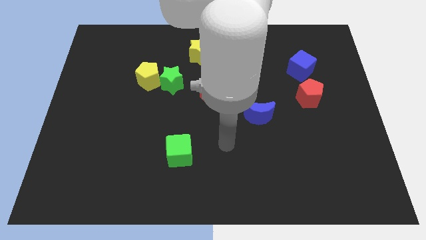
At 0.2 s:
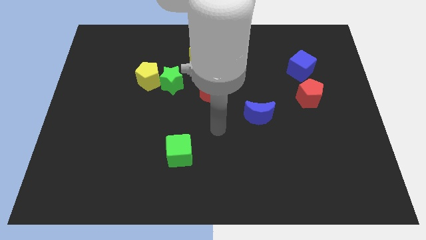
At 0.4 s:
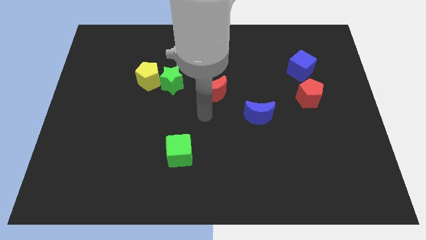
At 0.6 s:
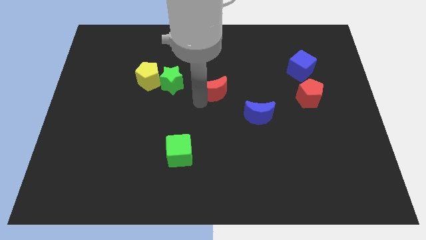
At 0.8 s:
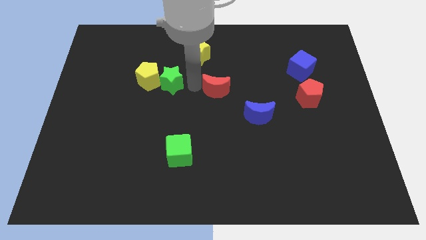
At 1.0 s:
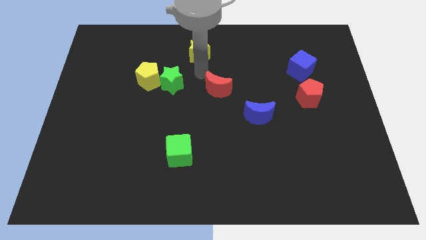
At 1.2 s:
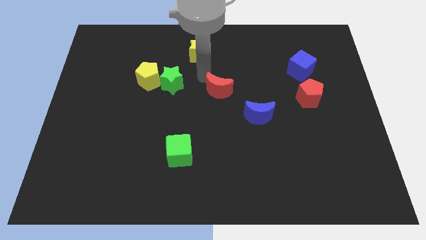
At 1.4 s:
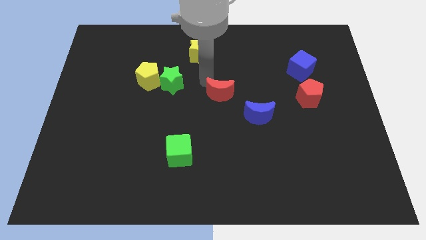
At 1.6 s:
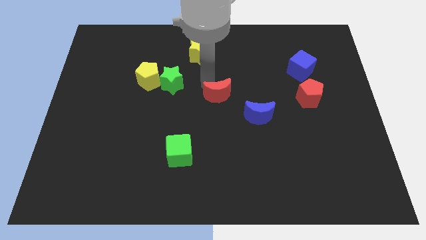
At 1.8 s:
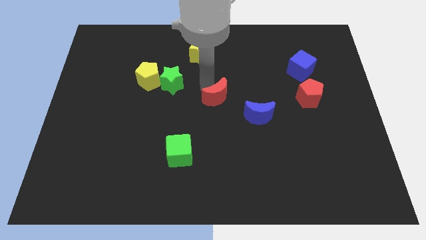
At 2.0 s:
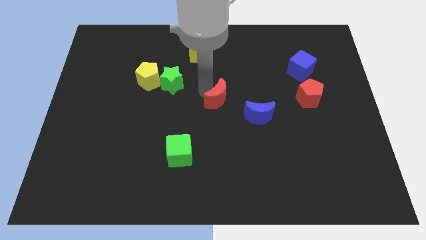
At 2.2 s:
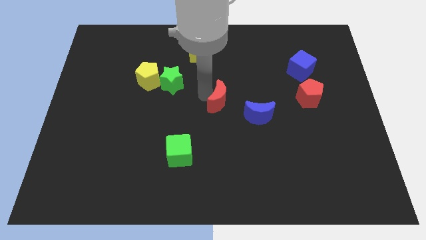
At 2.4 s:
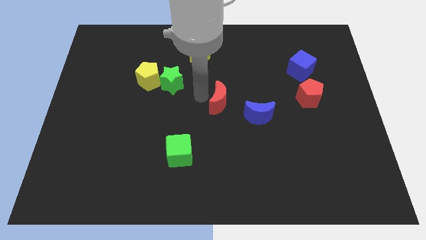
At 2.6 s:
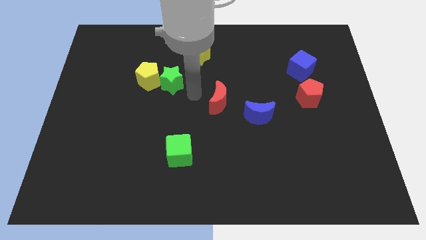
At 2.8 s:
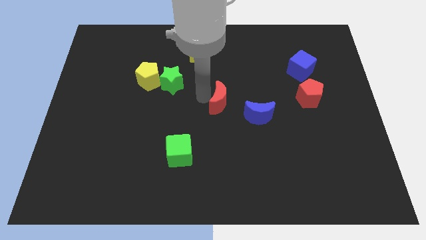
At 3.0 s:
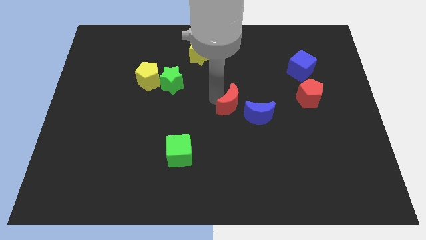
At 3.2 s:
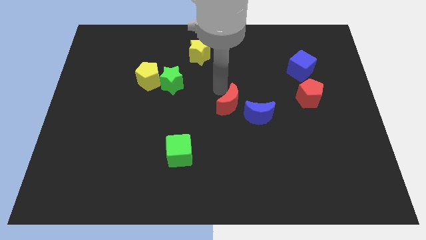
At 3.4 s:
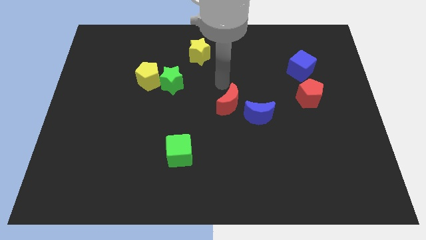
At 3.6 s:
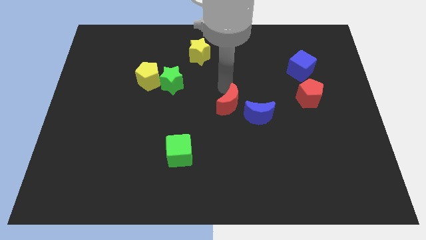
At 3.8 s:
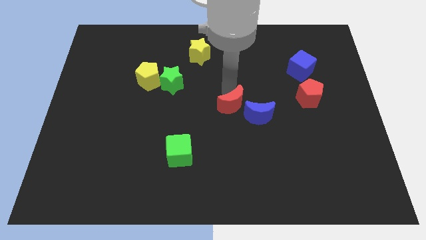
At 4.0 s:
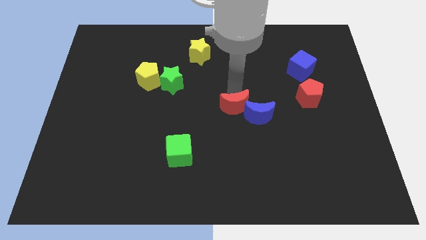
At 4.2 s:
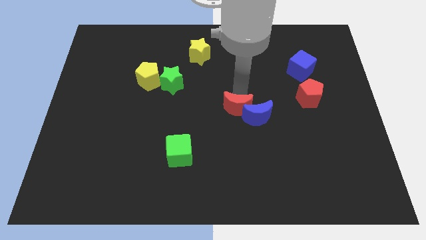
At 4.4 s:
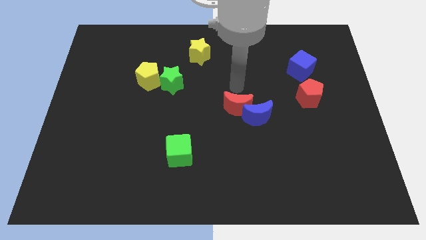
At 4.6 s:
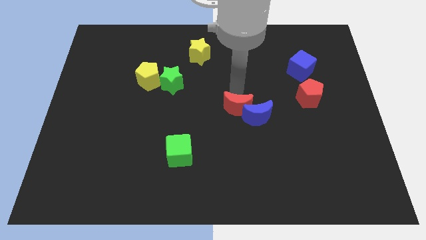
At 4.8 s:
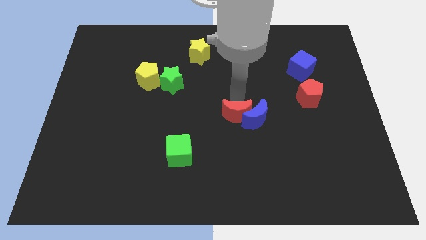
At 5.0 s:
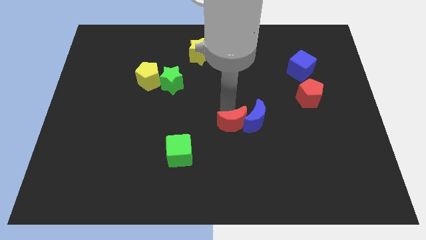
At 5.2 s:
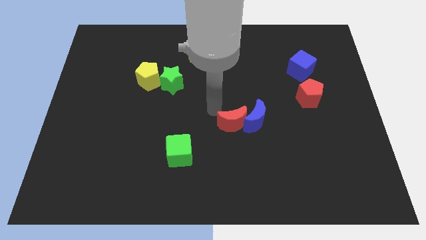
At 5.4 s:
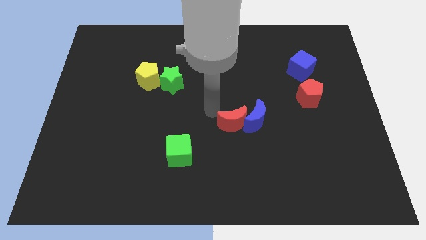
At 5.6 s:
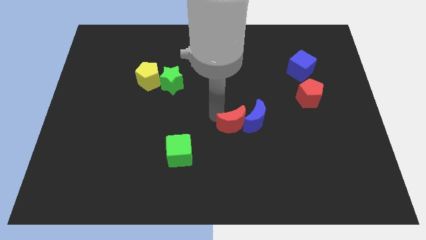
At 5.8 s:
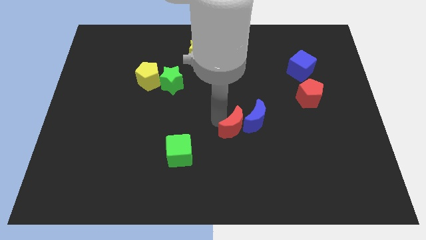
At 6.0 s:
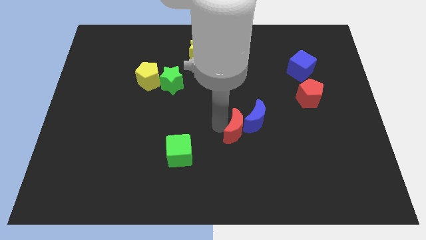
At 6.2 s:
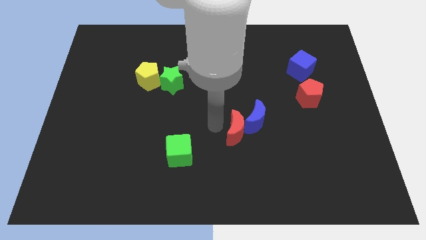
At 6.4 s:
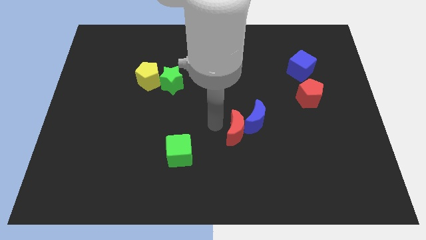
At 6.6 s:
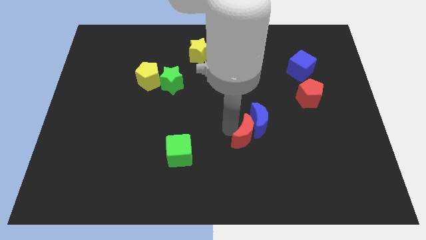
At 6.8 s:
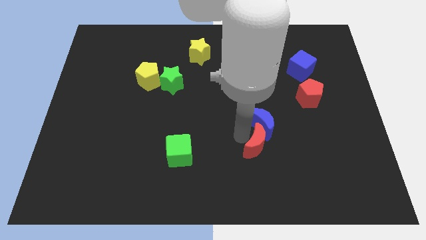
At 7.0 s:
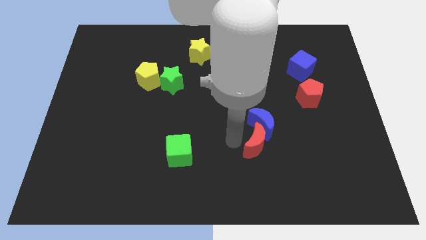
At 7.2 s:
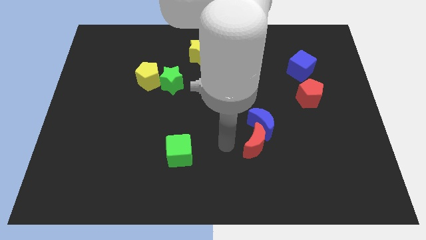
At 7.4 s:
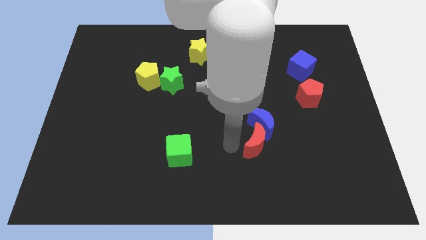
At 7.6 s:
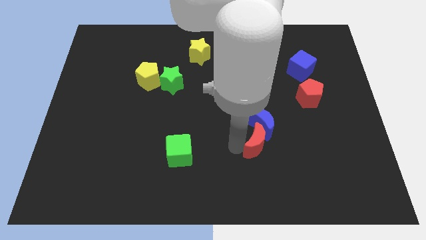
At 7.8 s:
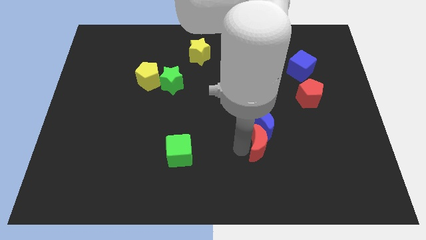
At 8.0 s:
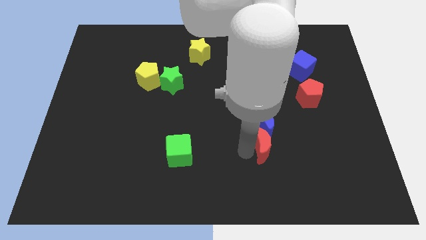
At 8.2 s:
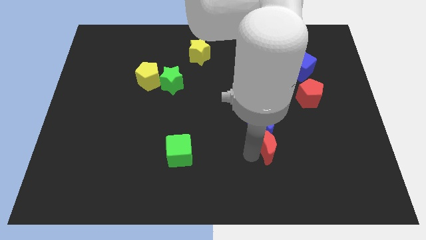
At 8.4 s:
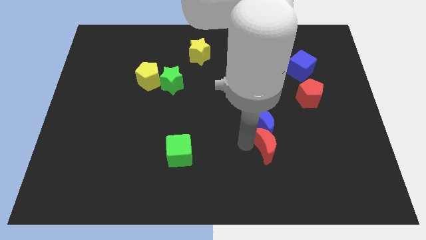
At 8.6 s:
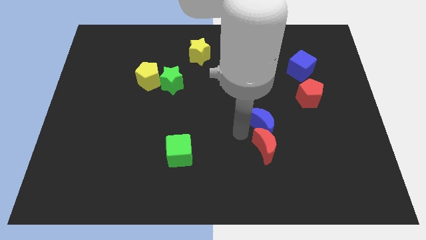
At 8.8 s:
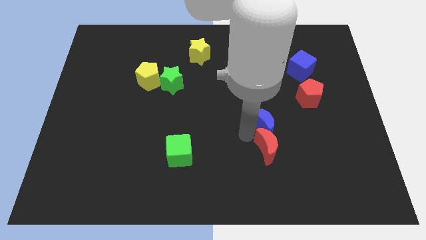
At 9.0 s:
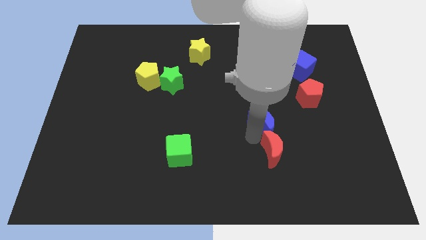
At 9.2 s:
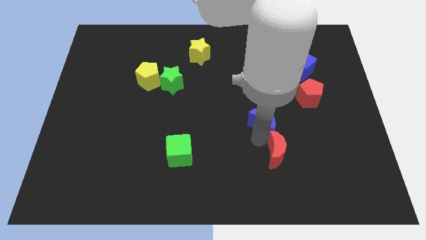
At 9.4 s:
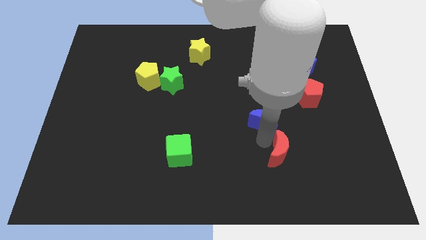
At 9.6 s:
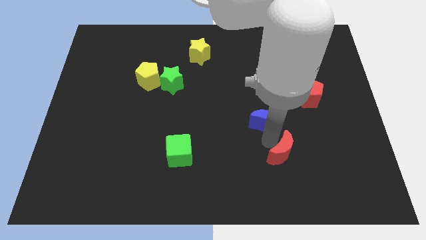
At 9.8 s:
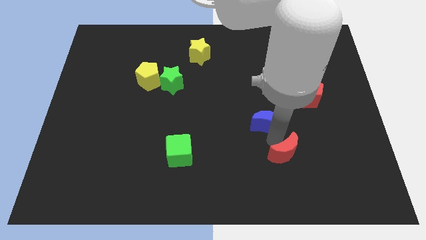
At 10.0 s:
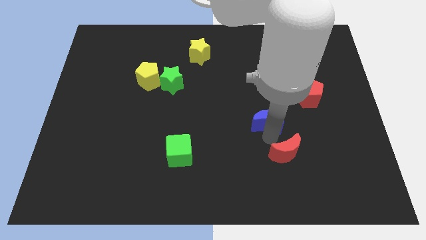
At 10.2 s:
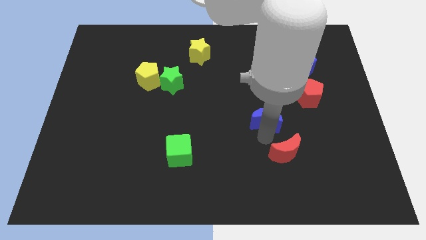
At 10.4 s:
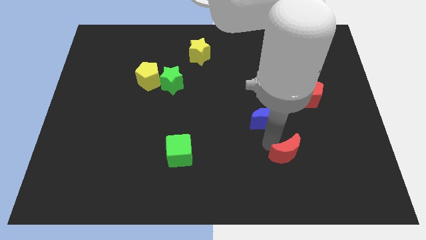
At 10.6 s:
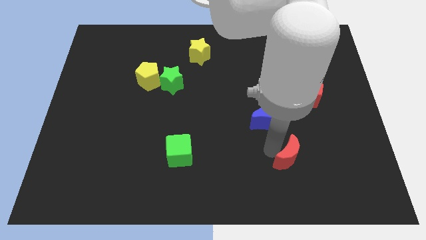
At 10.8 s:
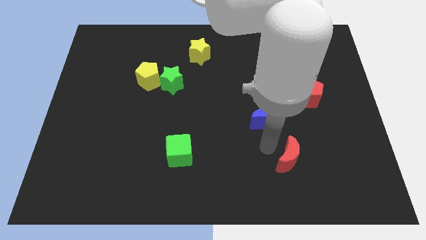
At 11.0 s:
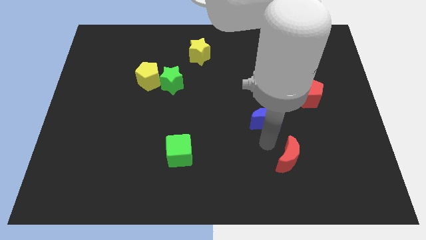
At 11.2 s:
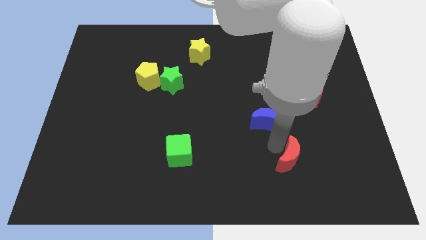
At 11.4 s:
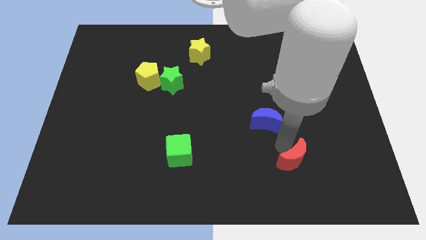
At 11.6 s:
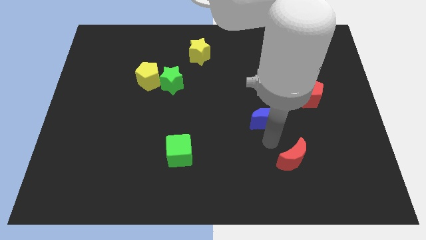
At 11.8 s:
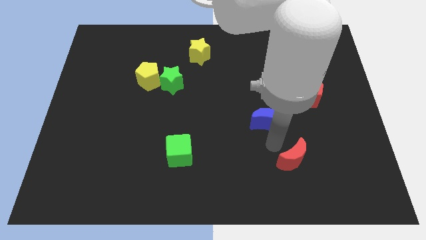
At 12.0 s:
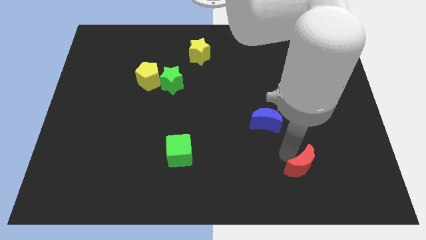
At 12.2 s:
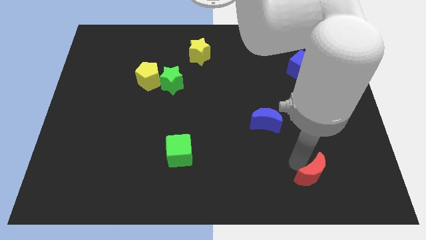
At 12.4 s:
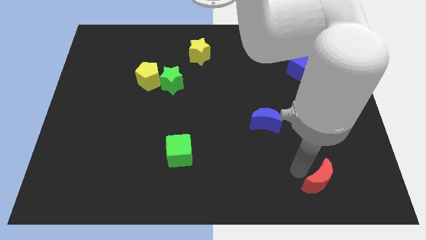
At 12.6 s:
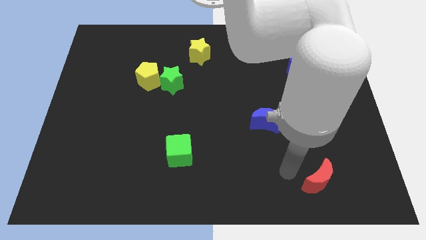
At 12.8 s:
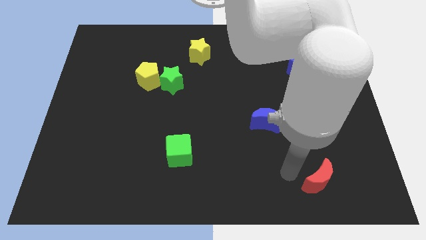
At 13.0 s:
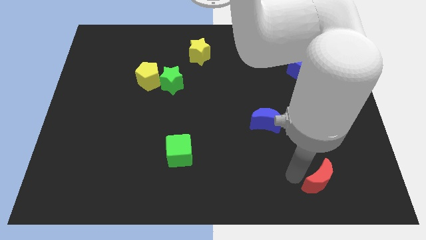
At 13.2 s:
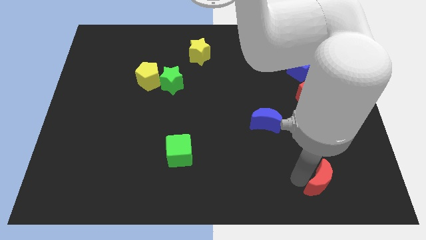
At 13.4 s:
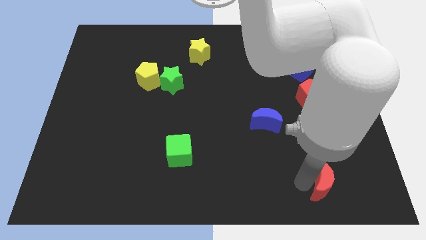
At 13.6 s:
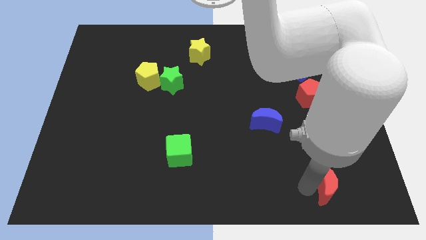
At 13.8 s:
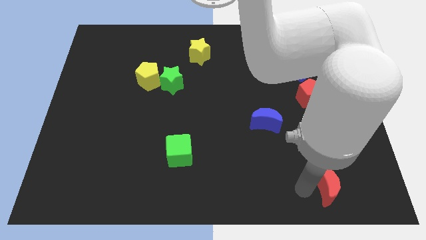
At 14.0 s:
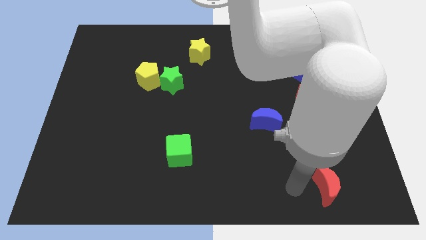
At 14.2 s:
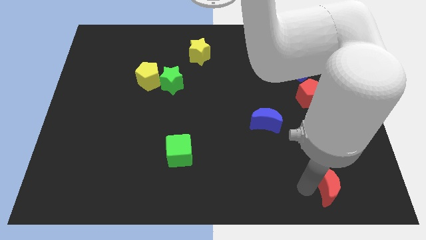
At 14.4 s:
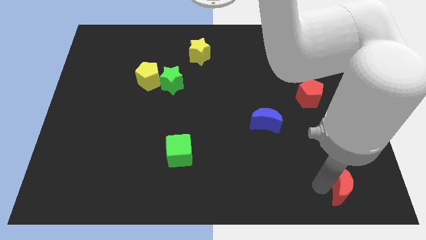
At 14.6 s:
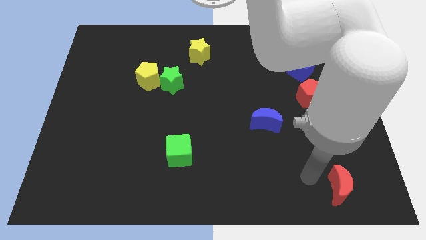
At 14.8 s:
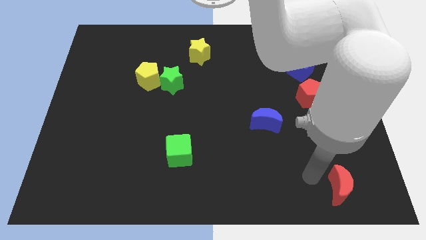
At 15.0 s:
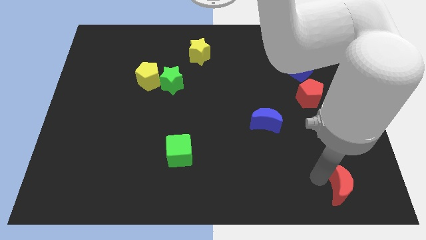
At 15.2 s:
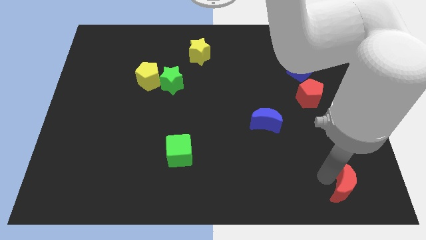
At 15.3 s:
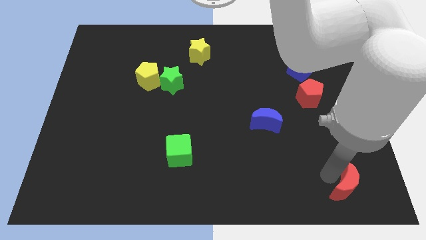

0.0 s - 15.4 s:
slide the red moon to the bottom right of the board
